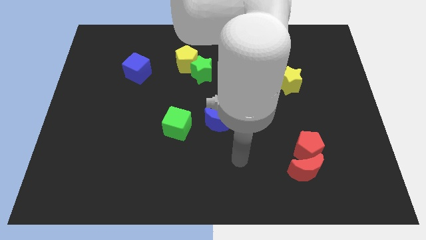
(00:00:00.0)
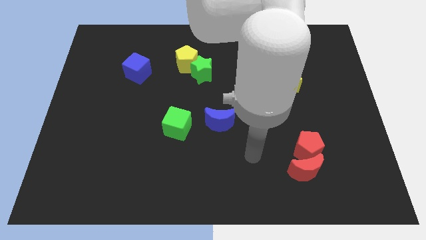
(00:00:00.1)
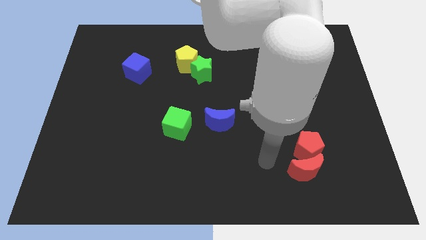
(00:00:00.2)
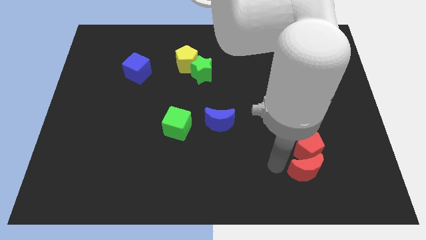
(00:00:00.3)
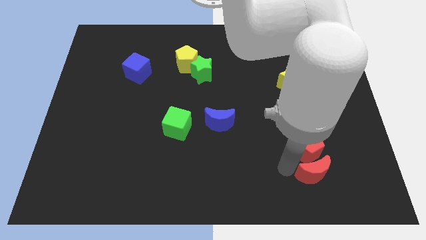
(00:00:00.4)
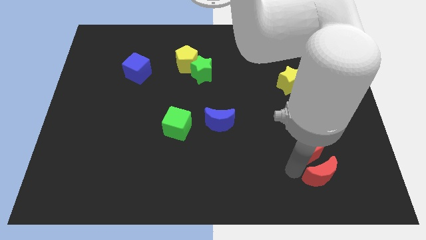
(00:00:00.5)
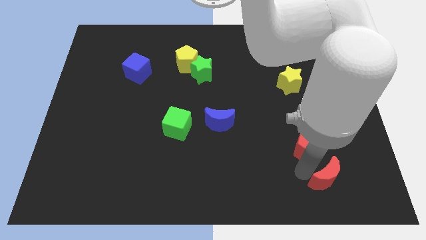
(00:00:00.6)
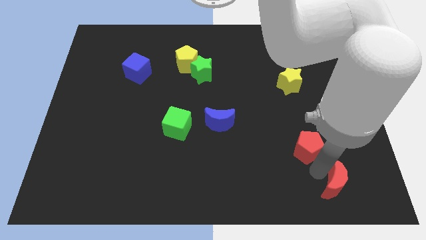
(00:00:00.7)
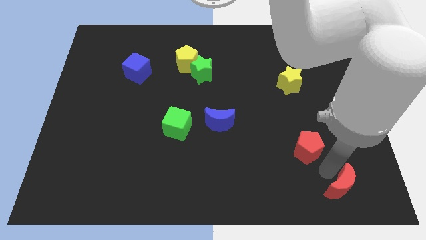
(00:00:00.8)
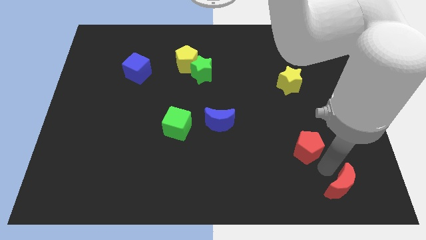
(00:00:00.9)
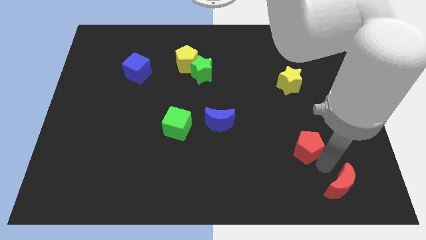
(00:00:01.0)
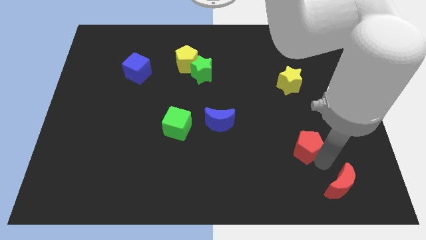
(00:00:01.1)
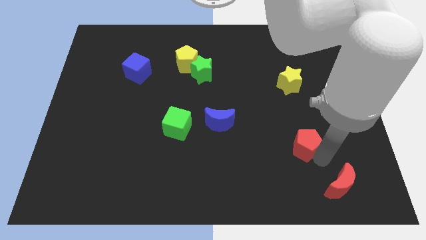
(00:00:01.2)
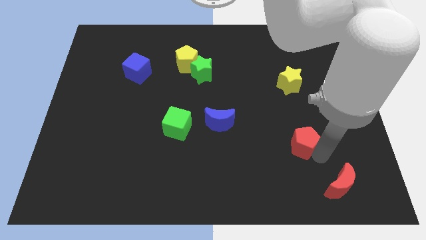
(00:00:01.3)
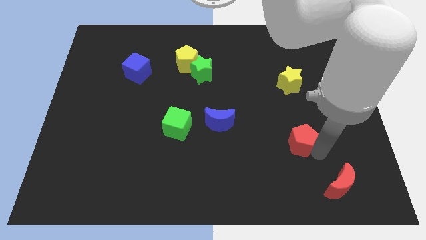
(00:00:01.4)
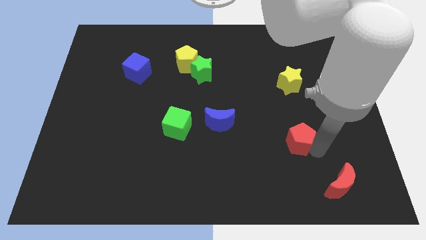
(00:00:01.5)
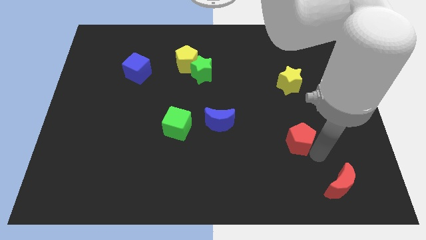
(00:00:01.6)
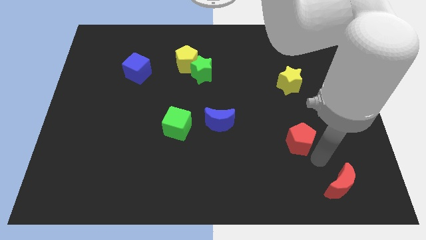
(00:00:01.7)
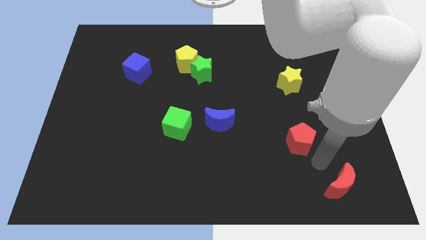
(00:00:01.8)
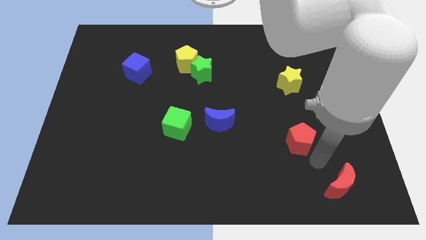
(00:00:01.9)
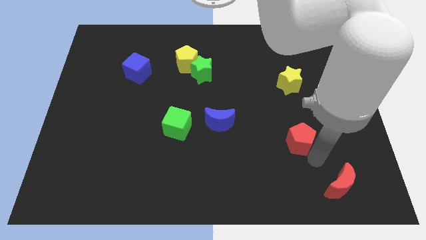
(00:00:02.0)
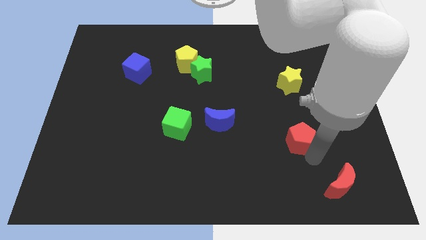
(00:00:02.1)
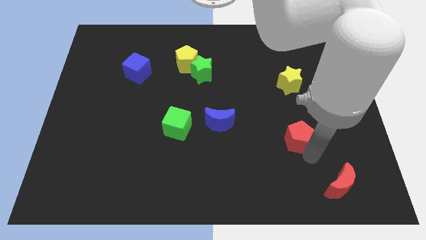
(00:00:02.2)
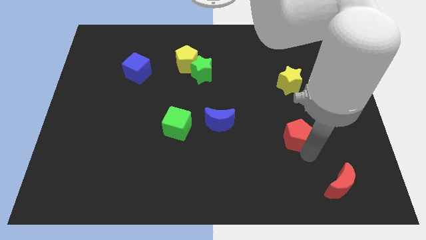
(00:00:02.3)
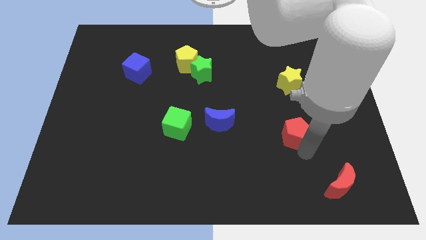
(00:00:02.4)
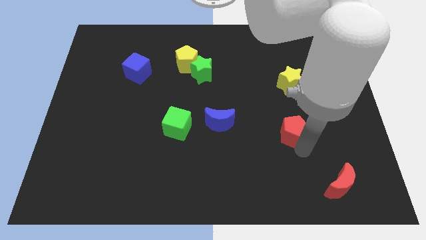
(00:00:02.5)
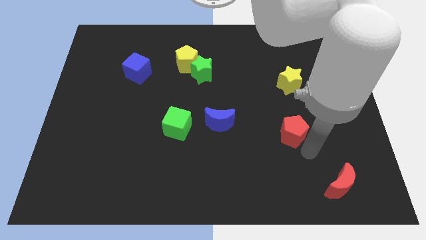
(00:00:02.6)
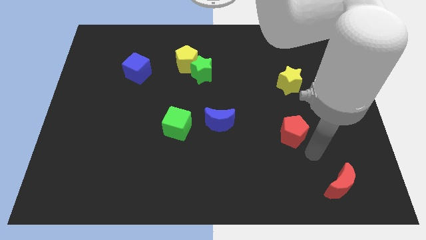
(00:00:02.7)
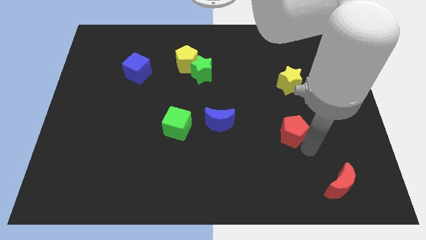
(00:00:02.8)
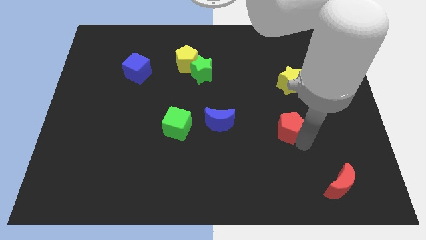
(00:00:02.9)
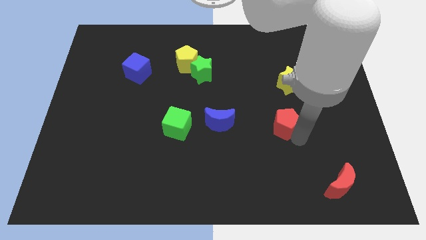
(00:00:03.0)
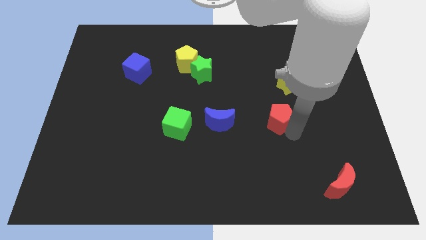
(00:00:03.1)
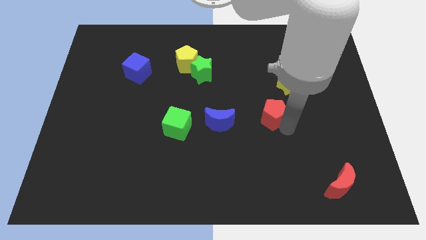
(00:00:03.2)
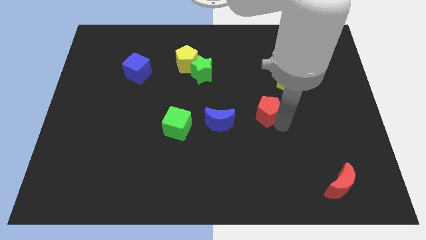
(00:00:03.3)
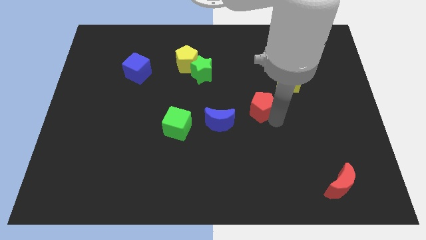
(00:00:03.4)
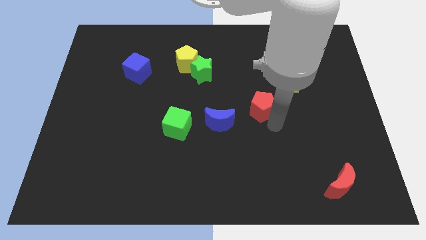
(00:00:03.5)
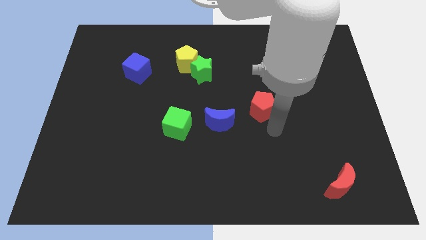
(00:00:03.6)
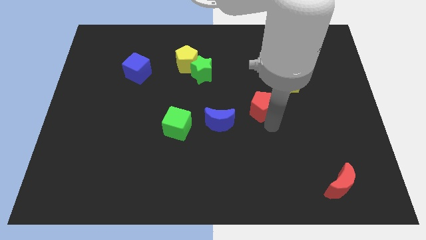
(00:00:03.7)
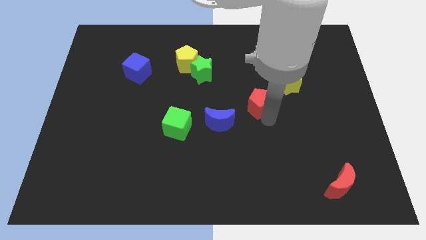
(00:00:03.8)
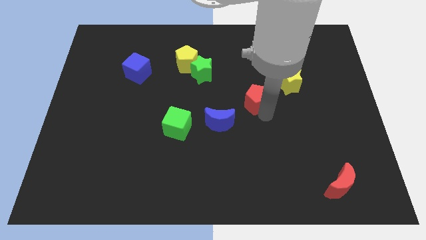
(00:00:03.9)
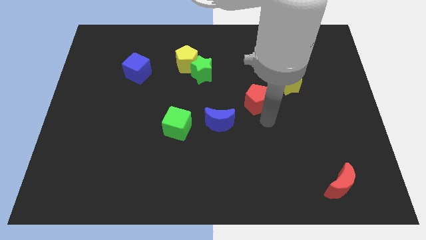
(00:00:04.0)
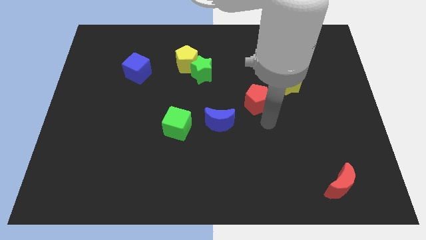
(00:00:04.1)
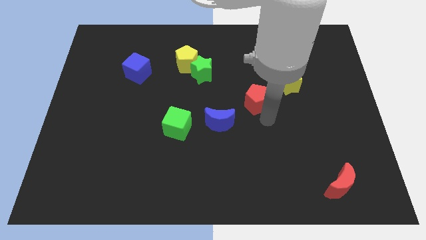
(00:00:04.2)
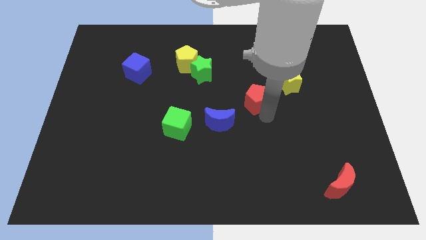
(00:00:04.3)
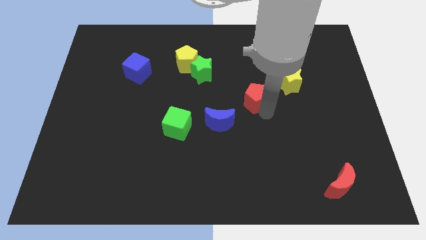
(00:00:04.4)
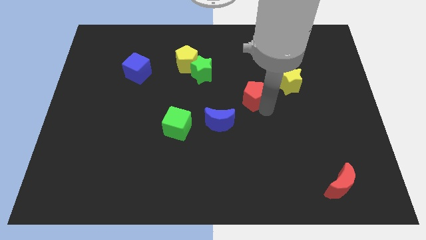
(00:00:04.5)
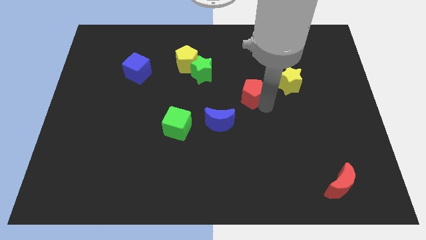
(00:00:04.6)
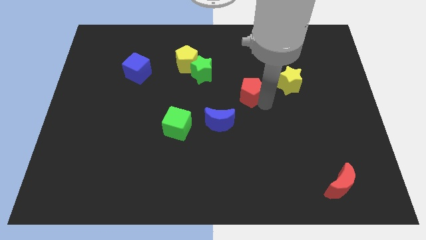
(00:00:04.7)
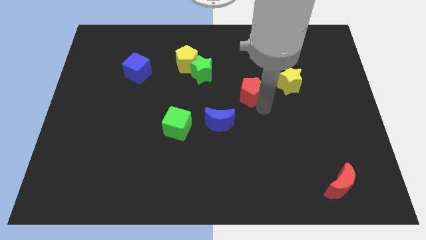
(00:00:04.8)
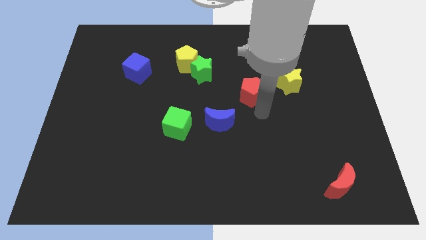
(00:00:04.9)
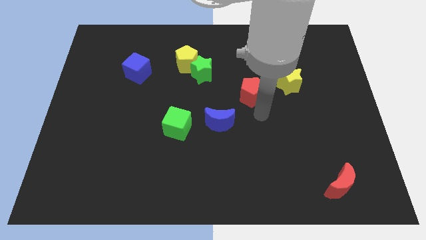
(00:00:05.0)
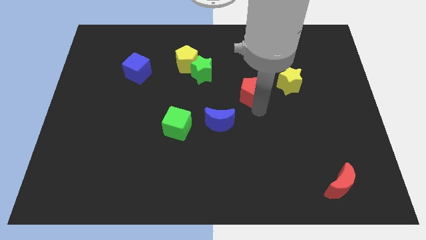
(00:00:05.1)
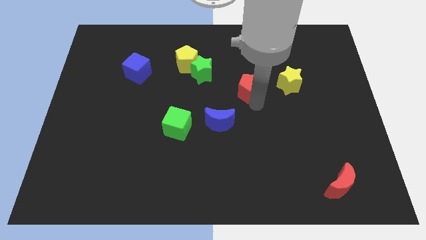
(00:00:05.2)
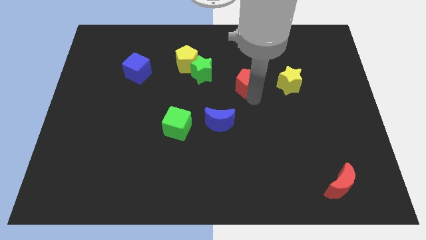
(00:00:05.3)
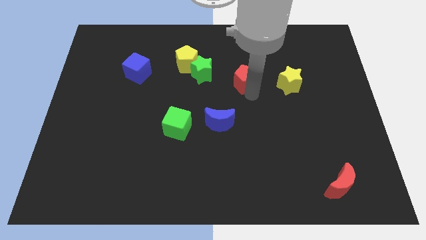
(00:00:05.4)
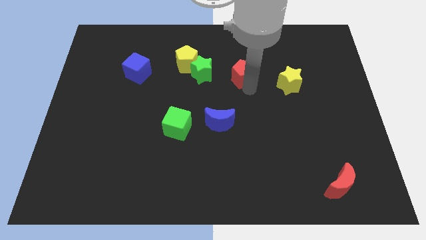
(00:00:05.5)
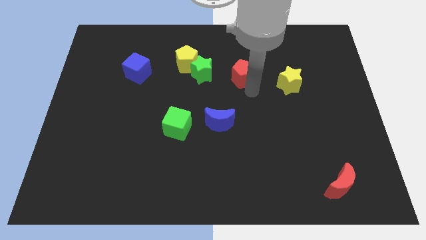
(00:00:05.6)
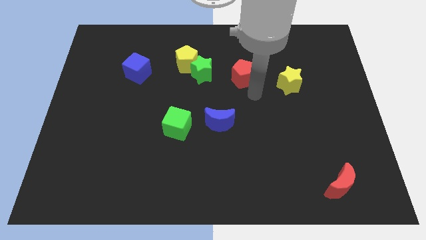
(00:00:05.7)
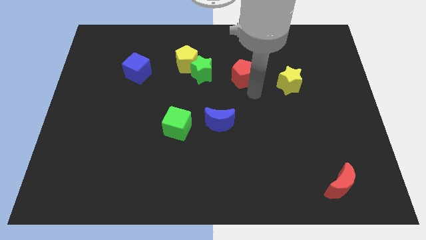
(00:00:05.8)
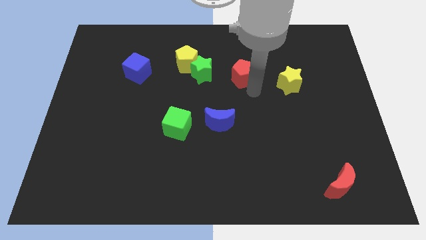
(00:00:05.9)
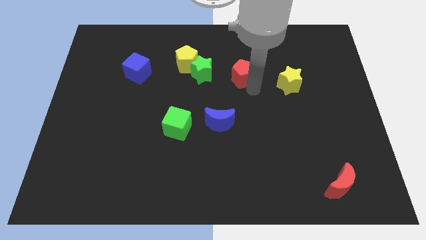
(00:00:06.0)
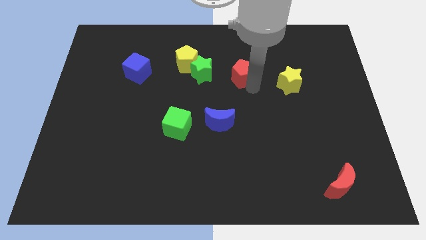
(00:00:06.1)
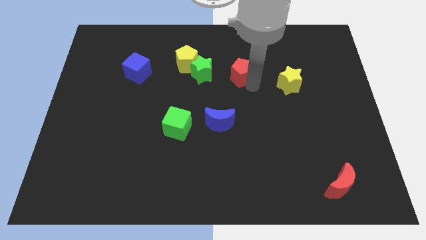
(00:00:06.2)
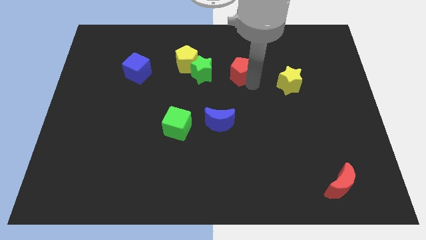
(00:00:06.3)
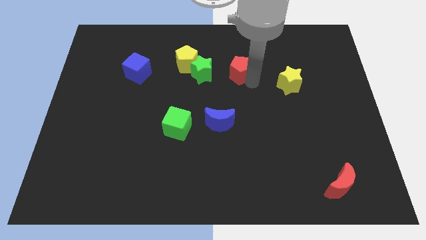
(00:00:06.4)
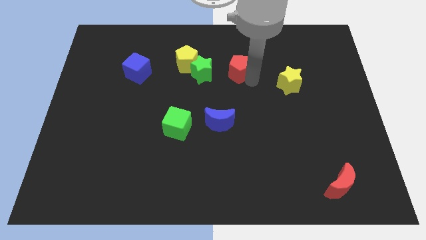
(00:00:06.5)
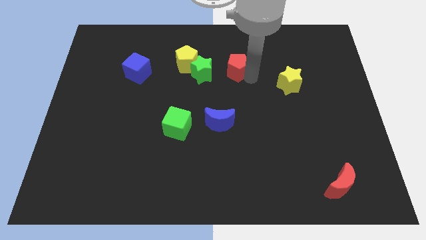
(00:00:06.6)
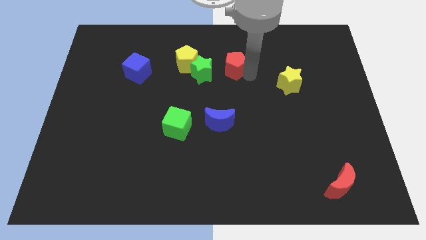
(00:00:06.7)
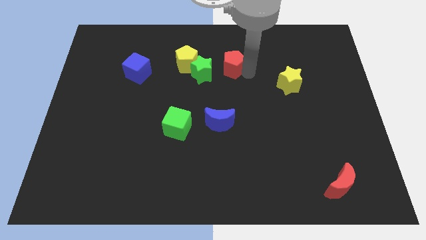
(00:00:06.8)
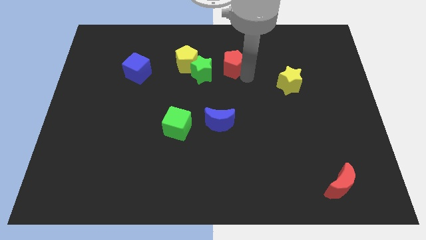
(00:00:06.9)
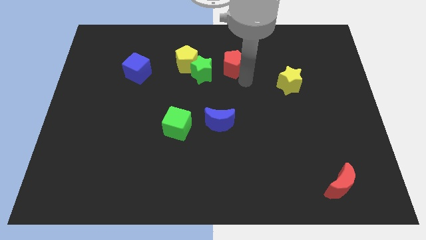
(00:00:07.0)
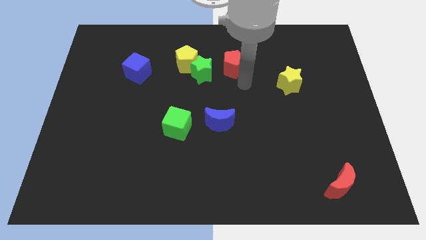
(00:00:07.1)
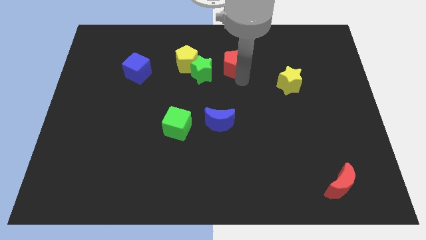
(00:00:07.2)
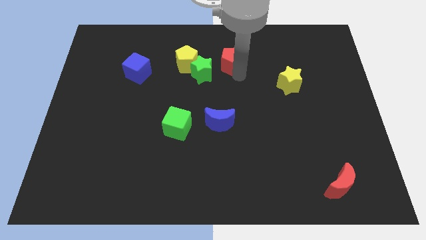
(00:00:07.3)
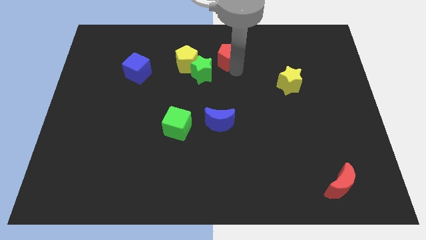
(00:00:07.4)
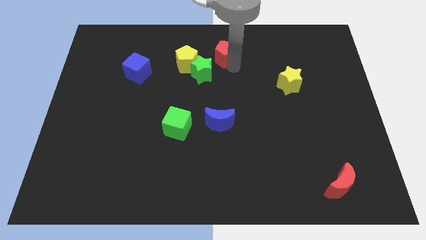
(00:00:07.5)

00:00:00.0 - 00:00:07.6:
put the red pentagon to the top

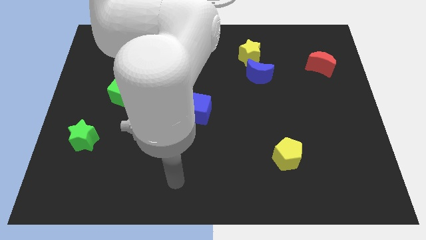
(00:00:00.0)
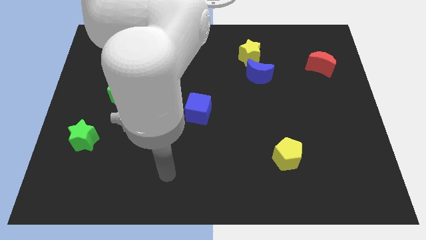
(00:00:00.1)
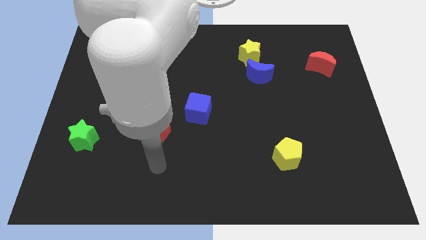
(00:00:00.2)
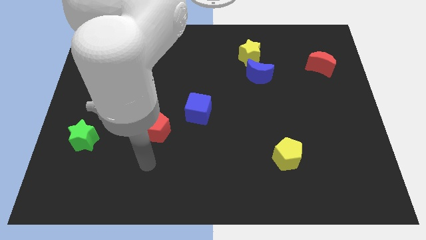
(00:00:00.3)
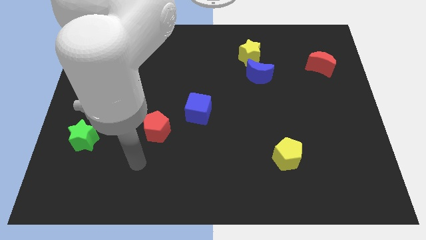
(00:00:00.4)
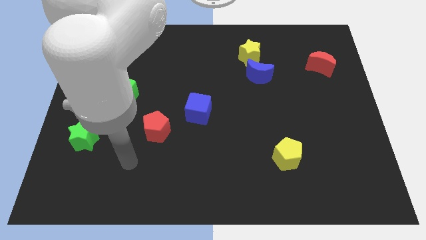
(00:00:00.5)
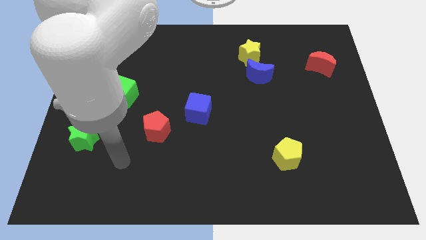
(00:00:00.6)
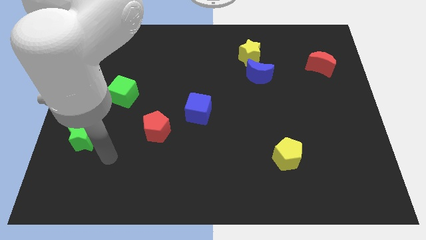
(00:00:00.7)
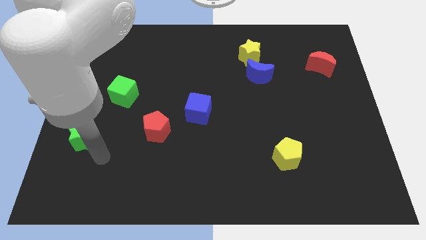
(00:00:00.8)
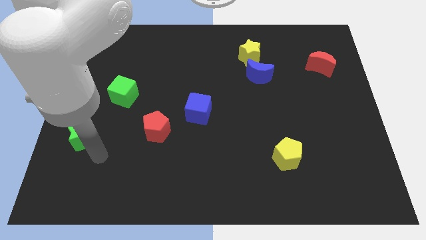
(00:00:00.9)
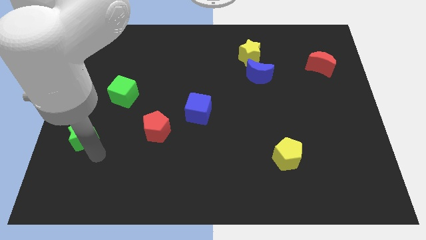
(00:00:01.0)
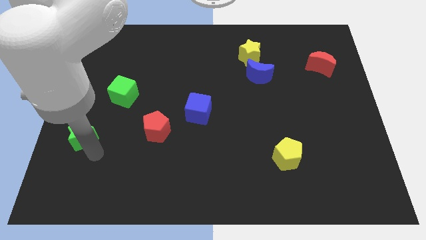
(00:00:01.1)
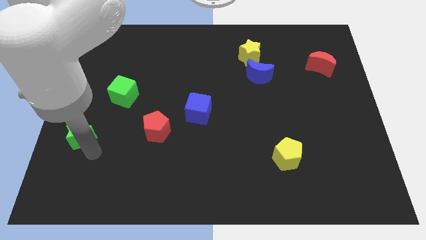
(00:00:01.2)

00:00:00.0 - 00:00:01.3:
slide the green star to the left side of the board
